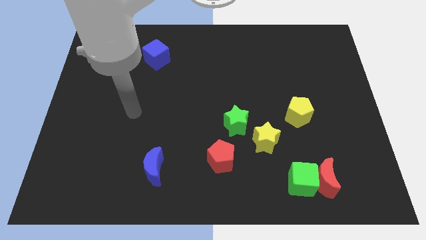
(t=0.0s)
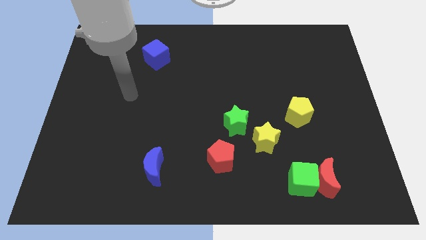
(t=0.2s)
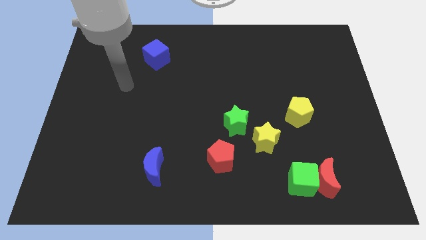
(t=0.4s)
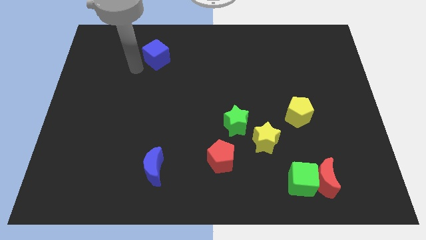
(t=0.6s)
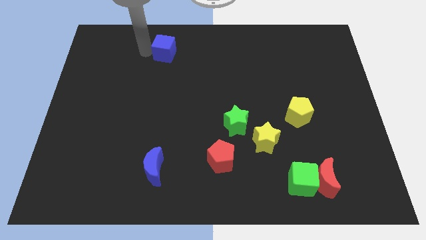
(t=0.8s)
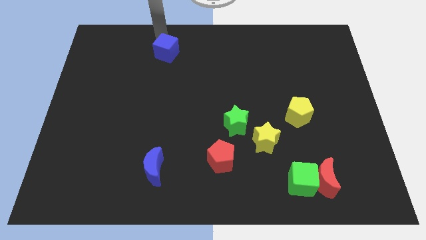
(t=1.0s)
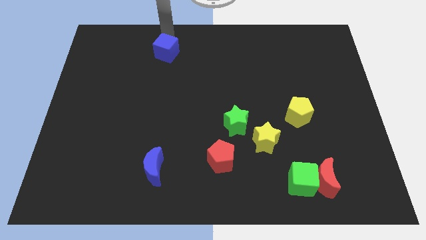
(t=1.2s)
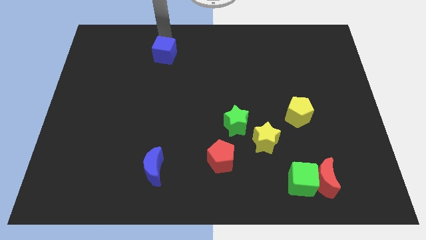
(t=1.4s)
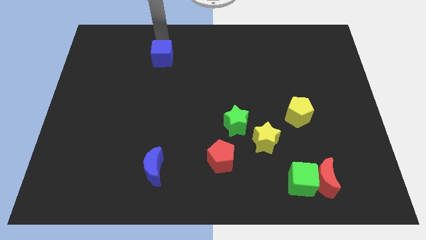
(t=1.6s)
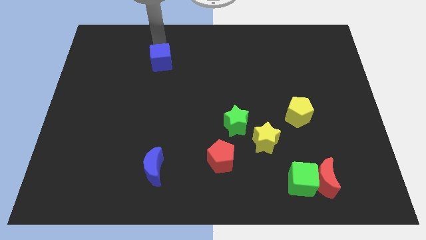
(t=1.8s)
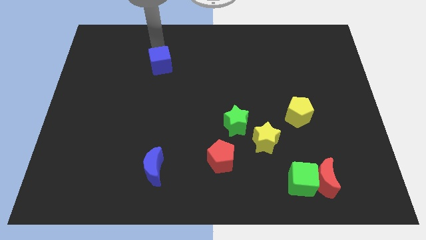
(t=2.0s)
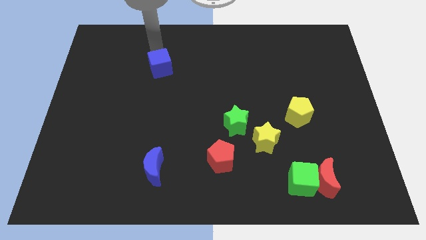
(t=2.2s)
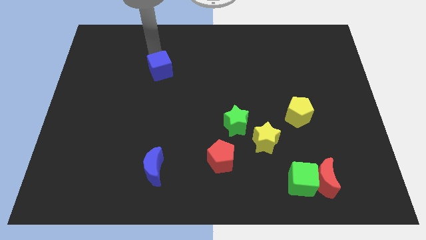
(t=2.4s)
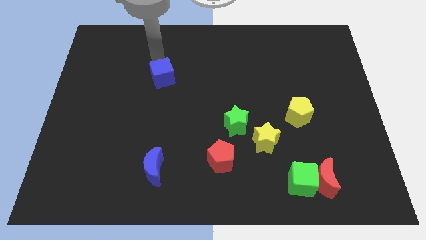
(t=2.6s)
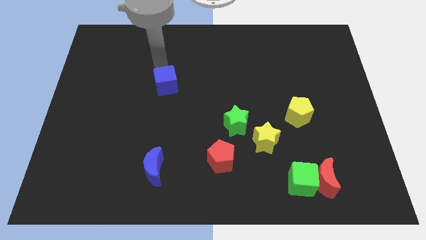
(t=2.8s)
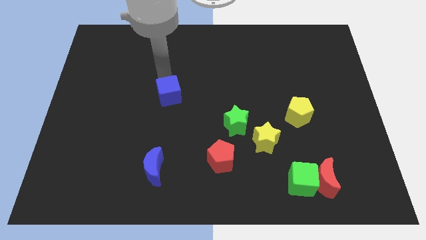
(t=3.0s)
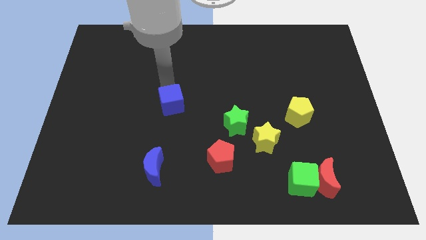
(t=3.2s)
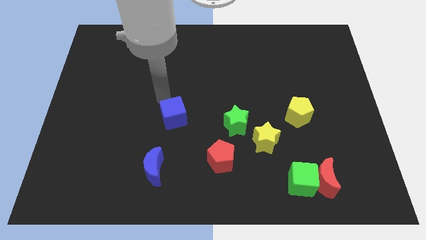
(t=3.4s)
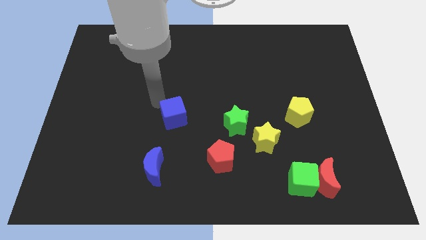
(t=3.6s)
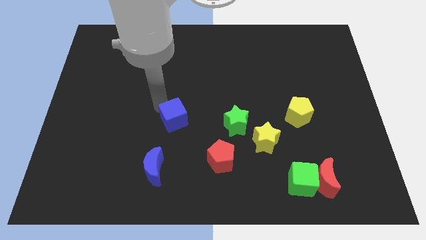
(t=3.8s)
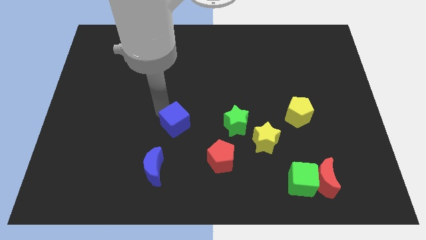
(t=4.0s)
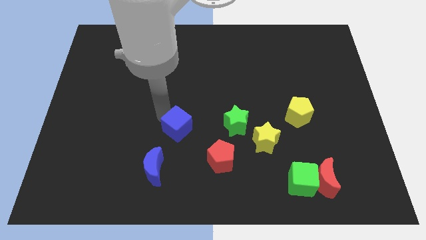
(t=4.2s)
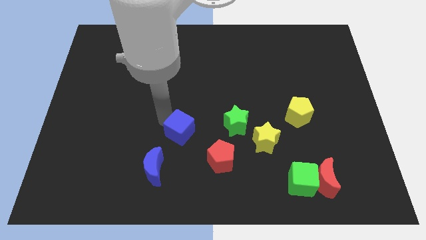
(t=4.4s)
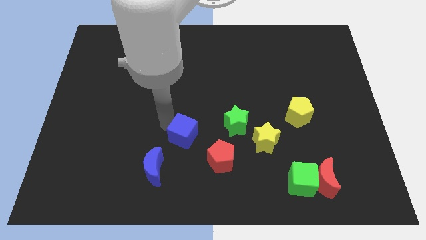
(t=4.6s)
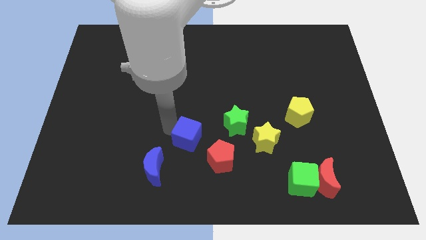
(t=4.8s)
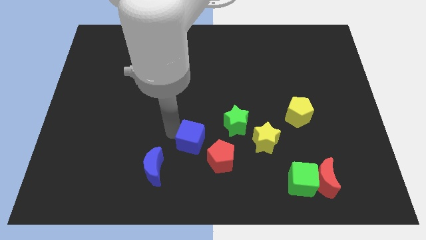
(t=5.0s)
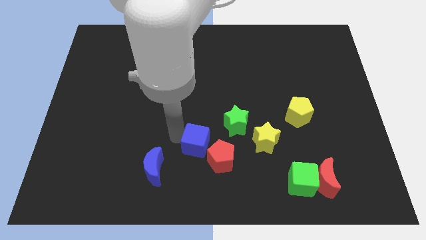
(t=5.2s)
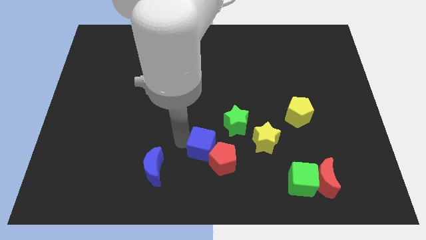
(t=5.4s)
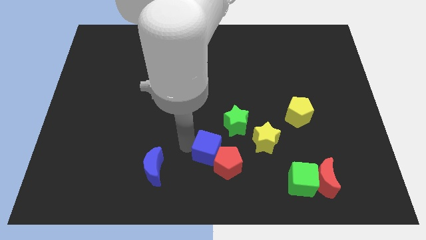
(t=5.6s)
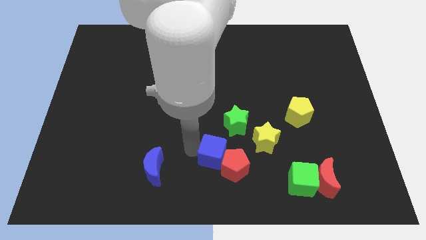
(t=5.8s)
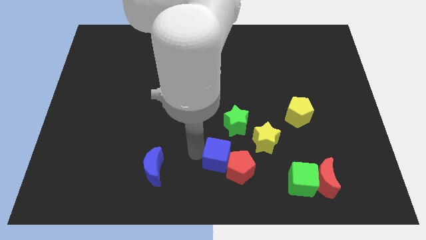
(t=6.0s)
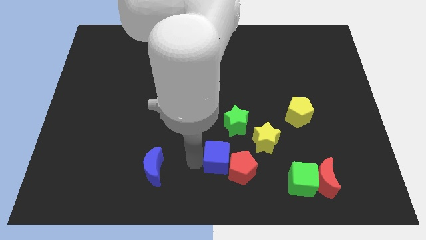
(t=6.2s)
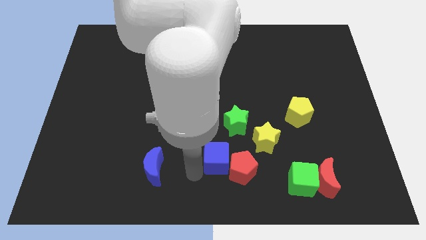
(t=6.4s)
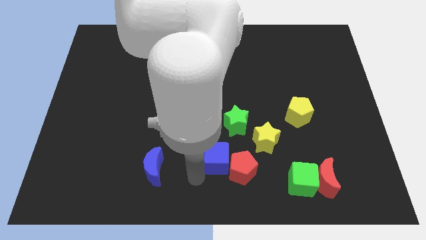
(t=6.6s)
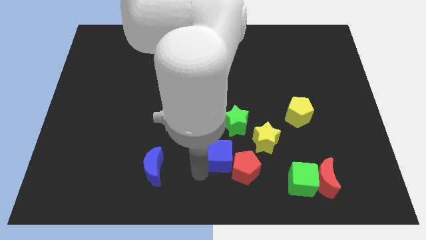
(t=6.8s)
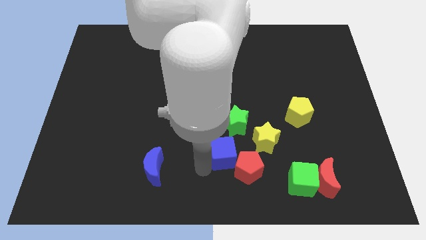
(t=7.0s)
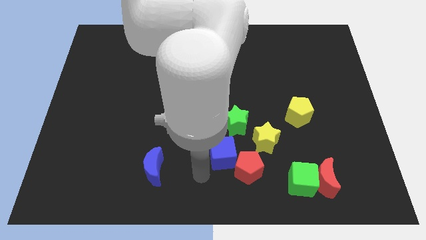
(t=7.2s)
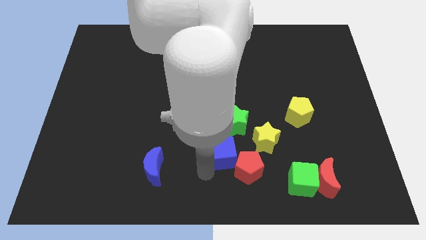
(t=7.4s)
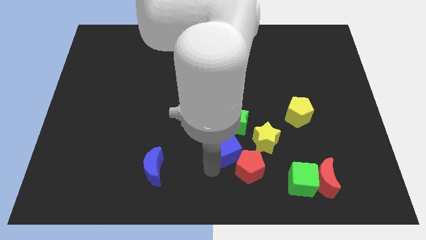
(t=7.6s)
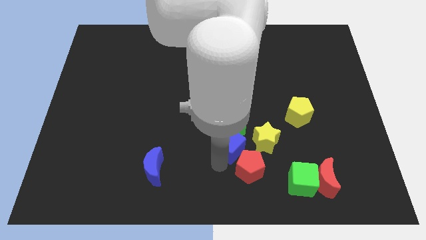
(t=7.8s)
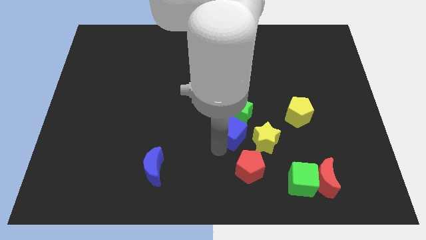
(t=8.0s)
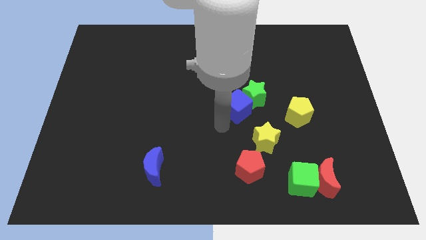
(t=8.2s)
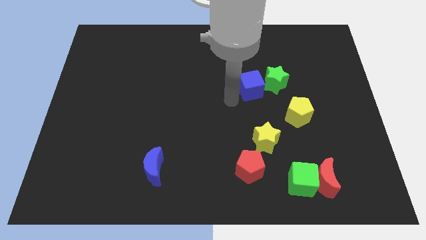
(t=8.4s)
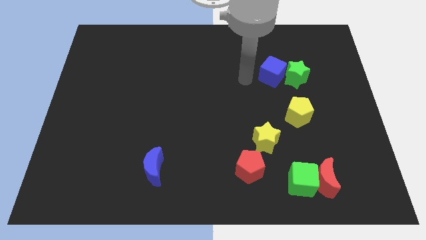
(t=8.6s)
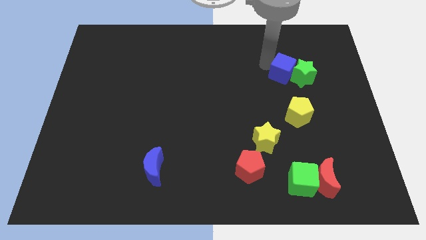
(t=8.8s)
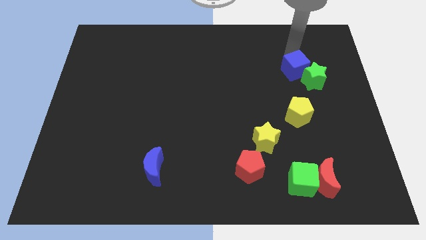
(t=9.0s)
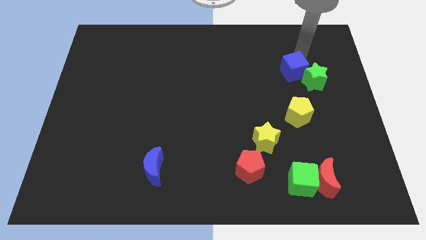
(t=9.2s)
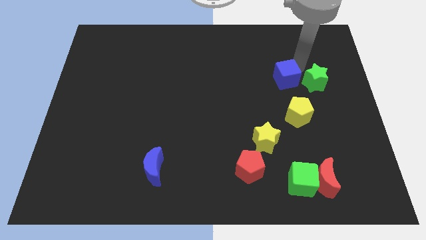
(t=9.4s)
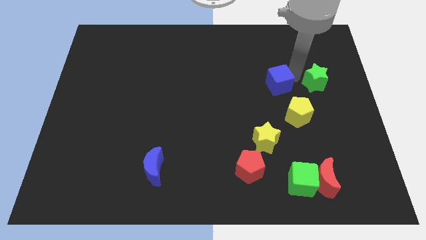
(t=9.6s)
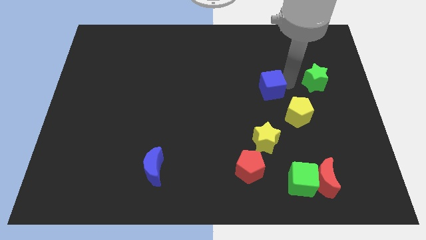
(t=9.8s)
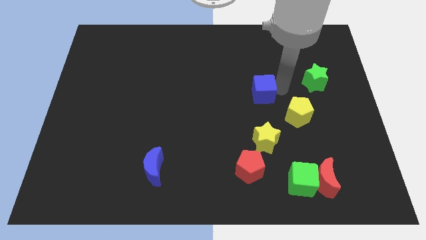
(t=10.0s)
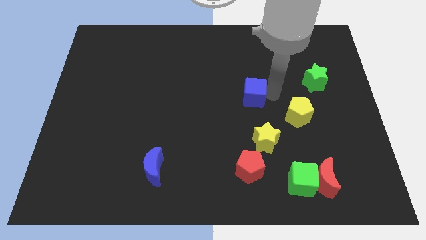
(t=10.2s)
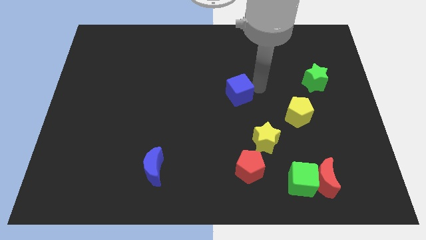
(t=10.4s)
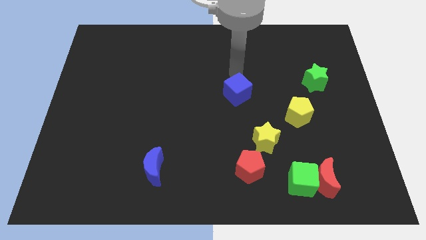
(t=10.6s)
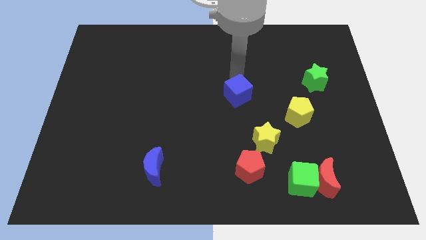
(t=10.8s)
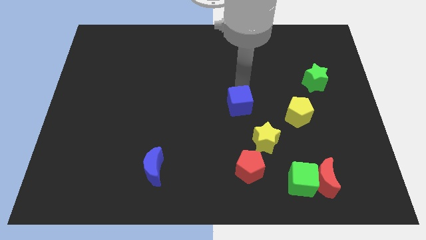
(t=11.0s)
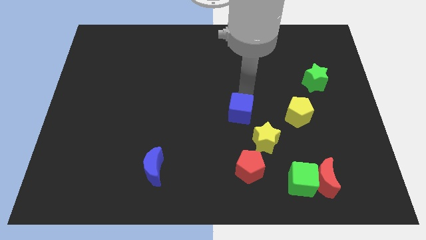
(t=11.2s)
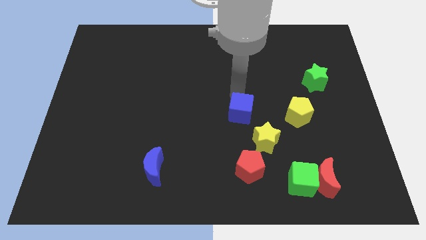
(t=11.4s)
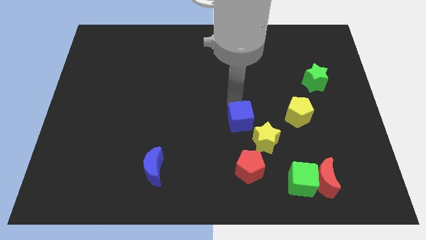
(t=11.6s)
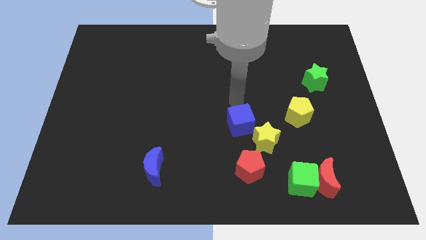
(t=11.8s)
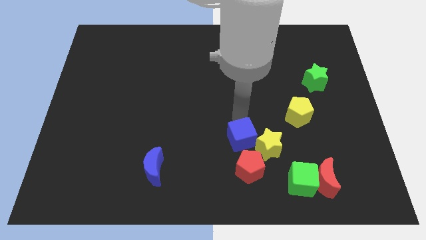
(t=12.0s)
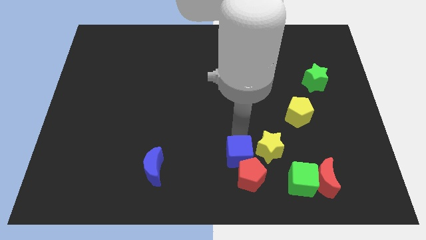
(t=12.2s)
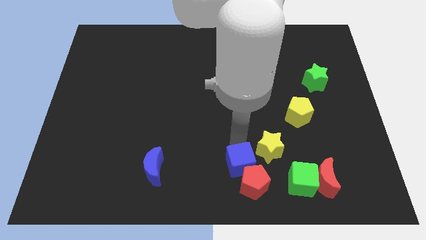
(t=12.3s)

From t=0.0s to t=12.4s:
put the blue cube to the left side of the green cube

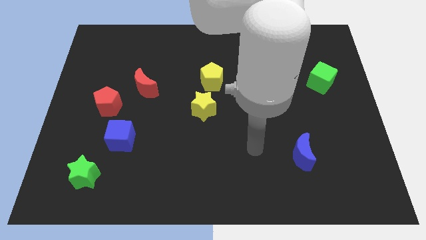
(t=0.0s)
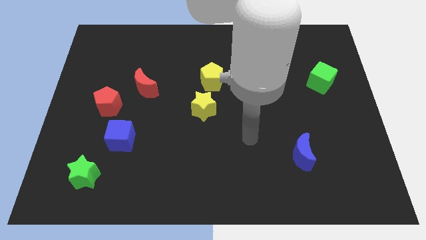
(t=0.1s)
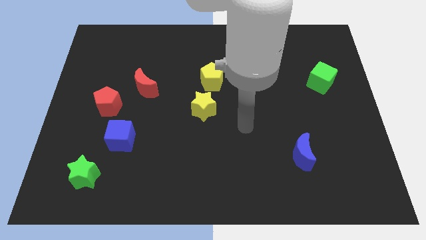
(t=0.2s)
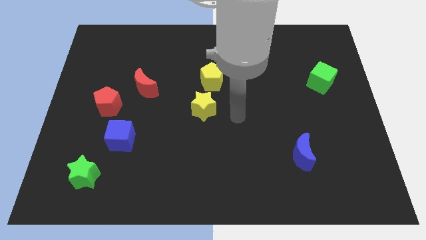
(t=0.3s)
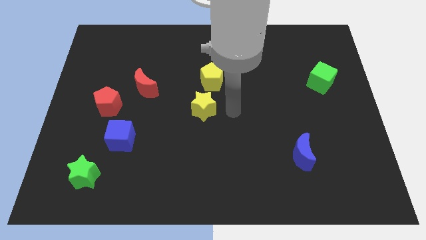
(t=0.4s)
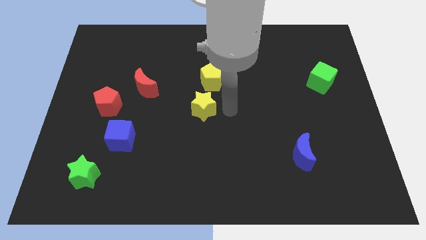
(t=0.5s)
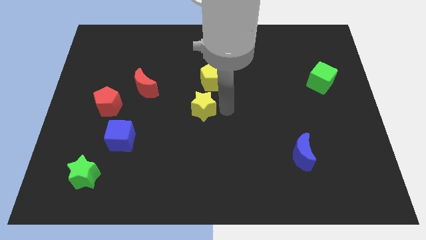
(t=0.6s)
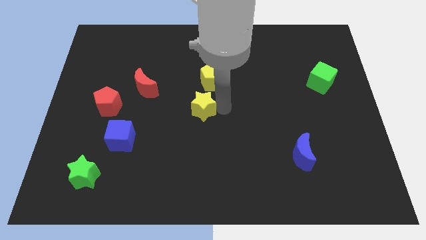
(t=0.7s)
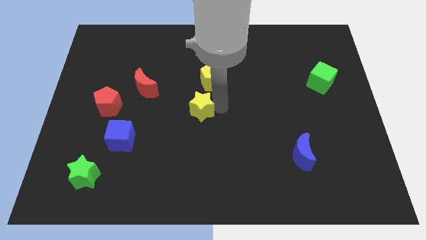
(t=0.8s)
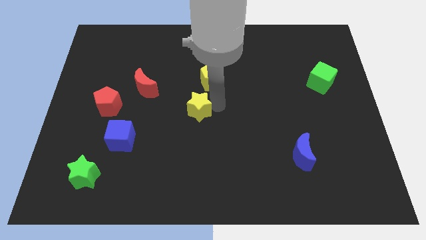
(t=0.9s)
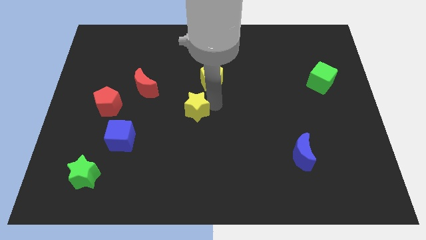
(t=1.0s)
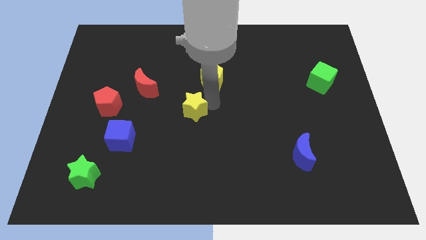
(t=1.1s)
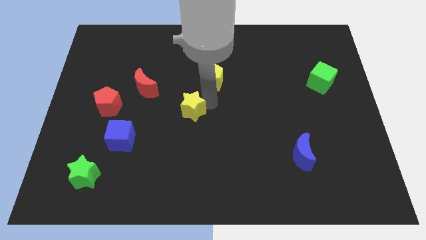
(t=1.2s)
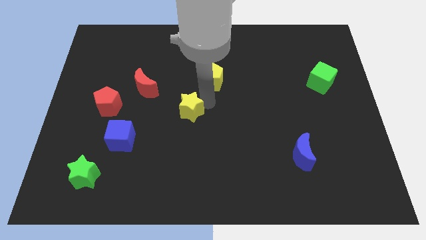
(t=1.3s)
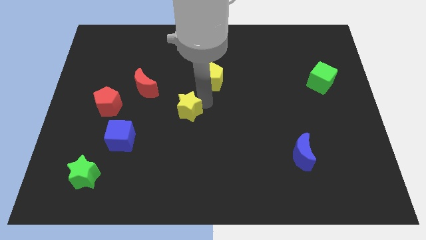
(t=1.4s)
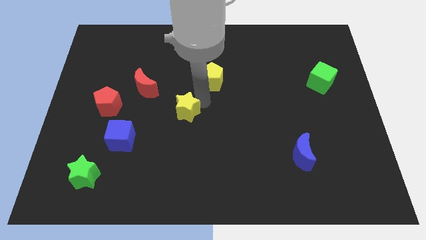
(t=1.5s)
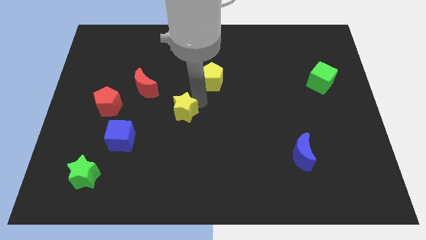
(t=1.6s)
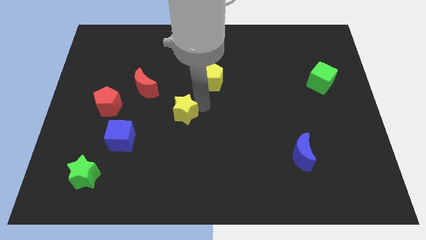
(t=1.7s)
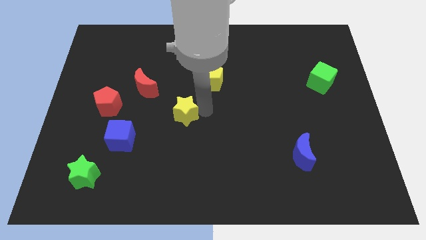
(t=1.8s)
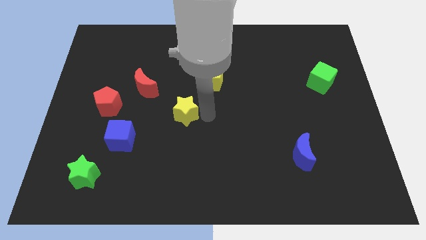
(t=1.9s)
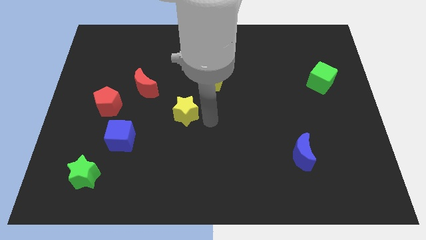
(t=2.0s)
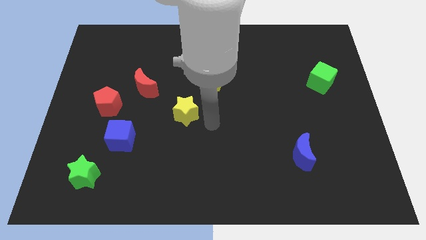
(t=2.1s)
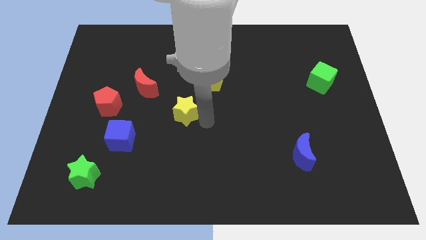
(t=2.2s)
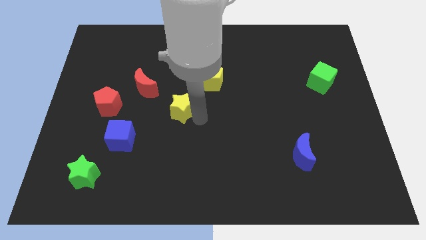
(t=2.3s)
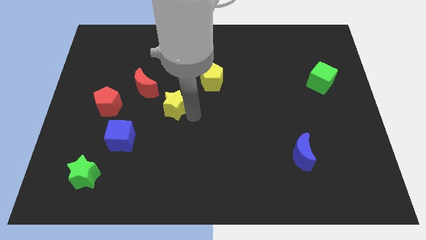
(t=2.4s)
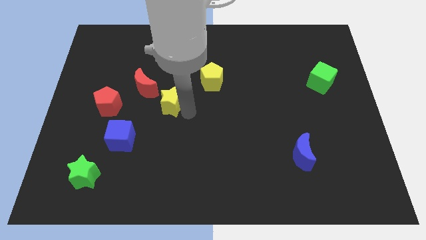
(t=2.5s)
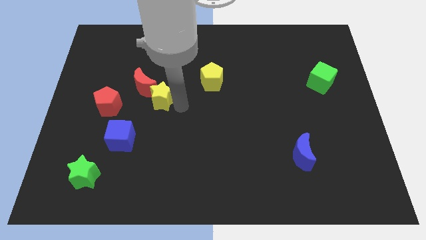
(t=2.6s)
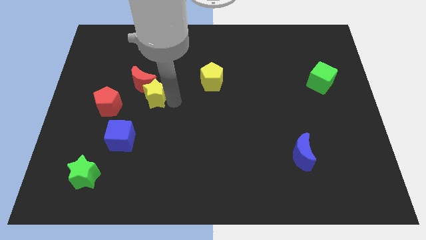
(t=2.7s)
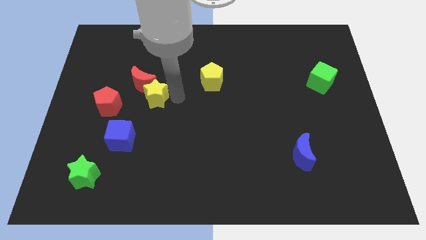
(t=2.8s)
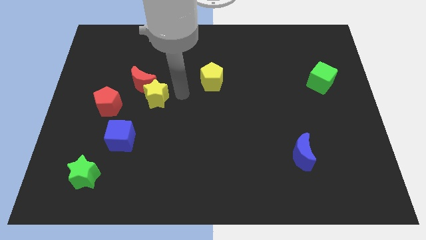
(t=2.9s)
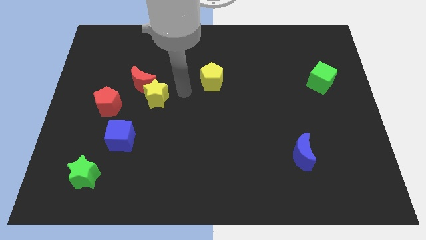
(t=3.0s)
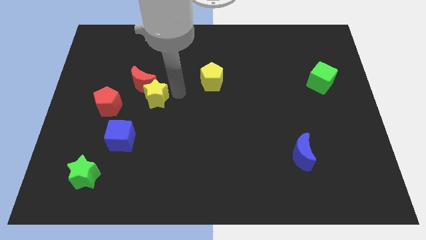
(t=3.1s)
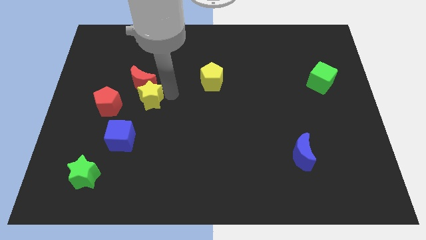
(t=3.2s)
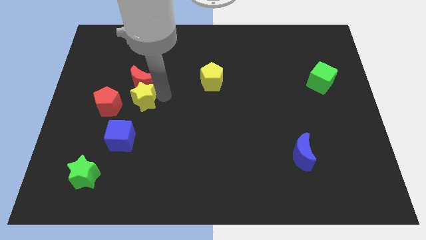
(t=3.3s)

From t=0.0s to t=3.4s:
put the yellow star to the top side of the blue cube
